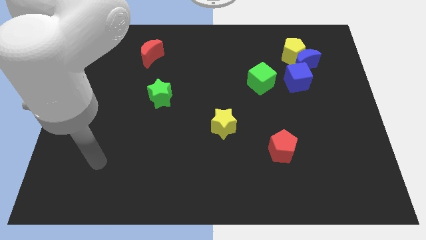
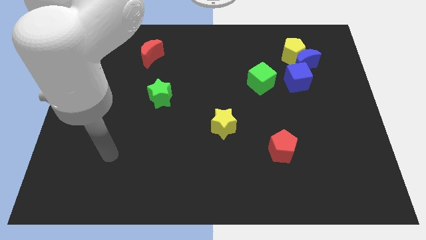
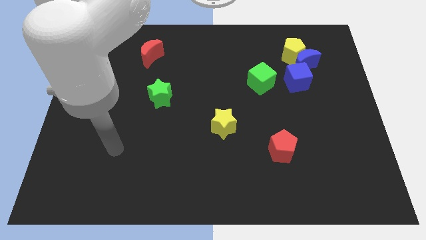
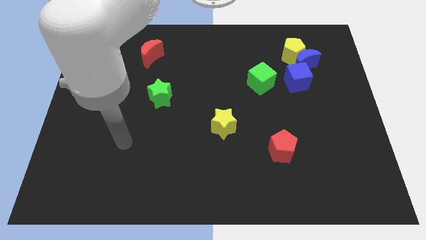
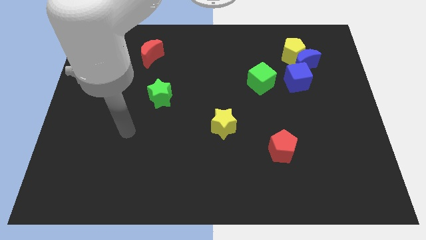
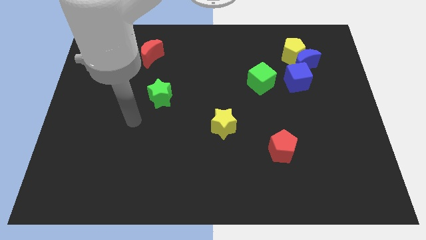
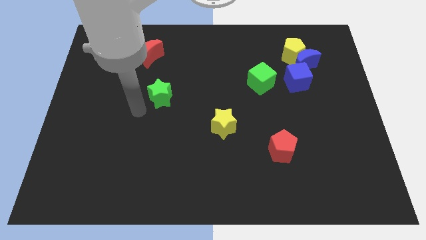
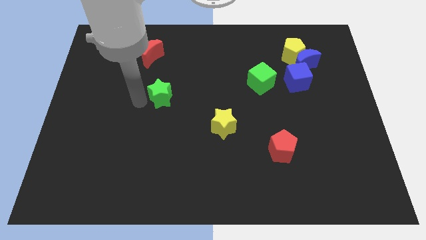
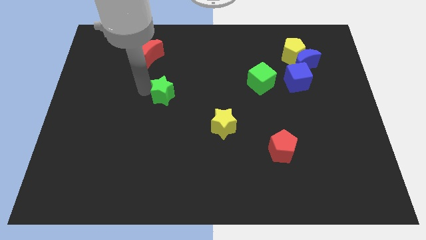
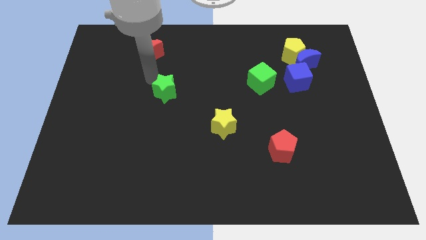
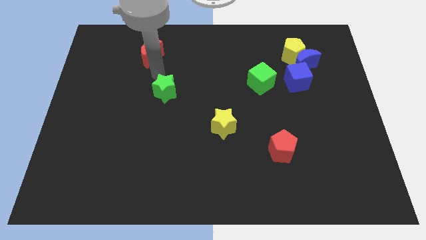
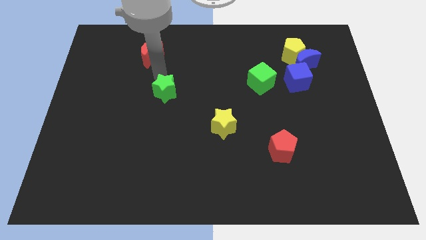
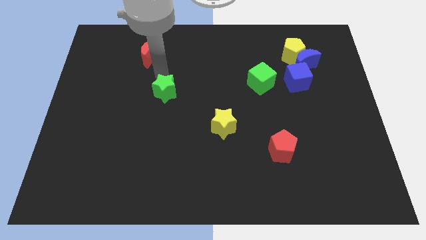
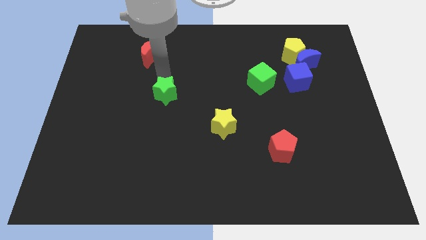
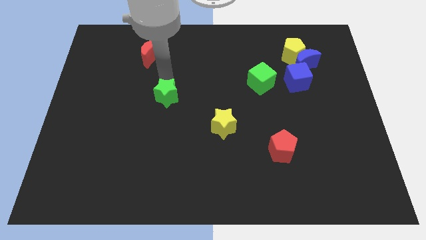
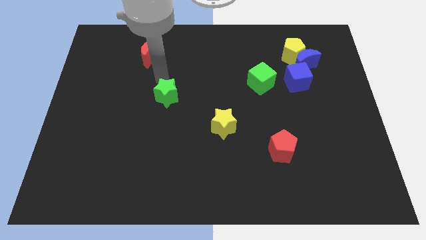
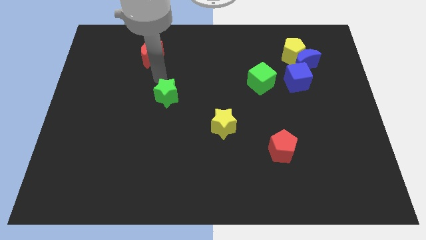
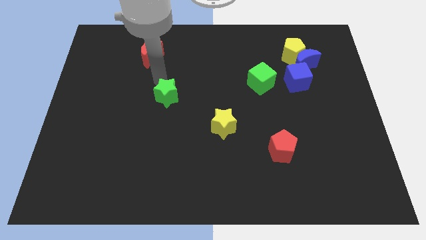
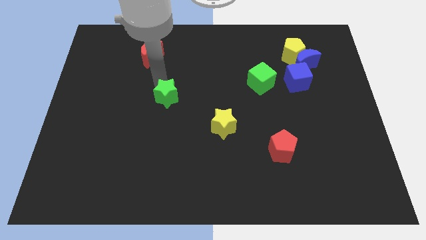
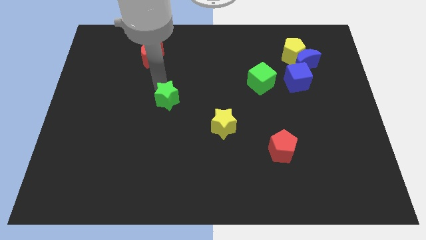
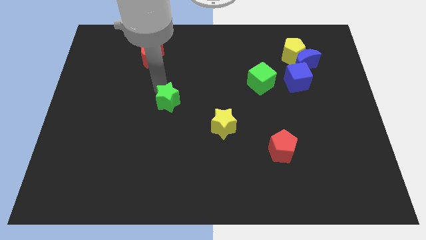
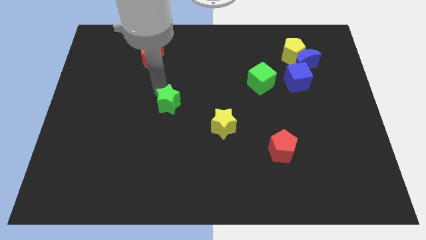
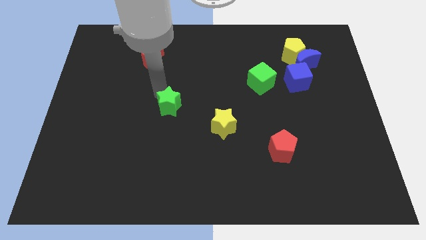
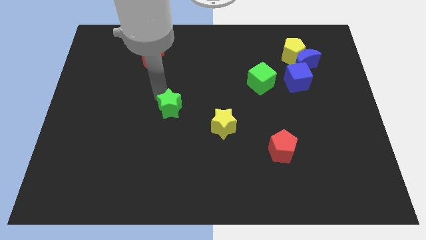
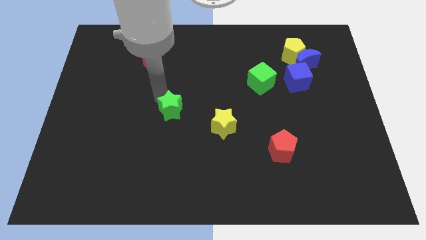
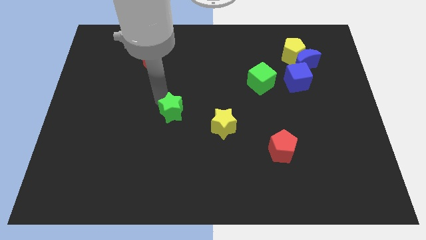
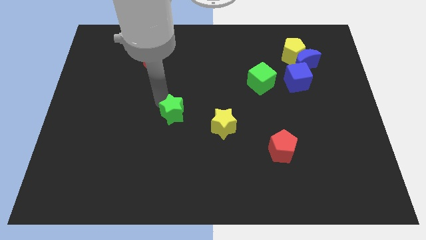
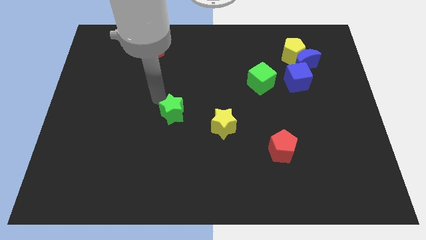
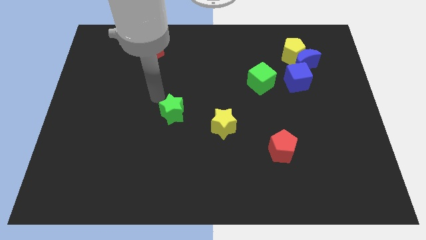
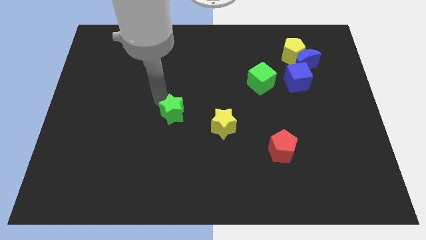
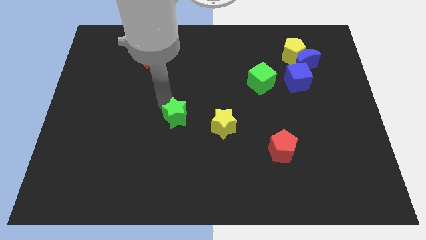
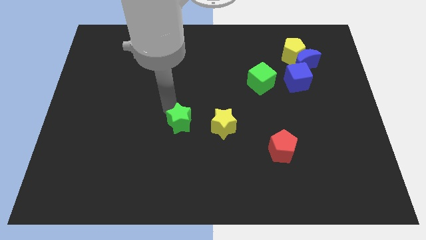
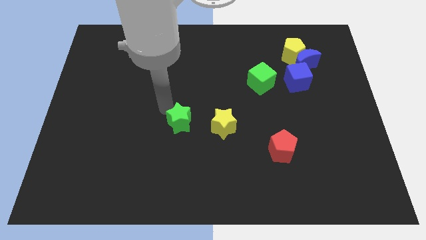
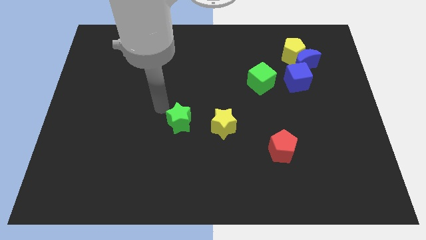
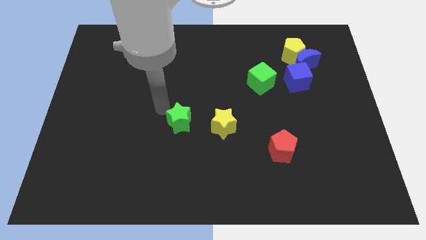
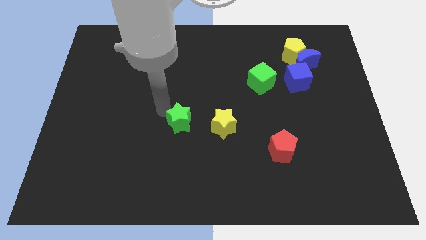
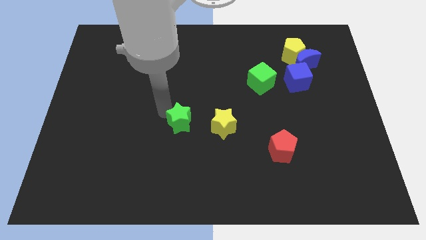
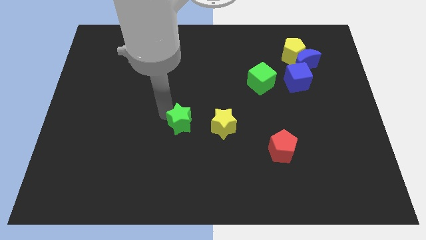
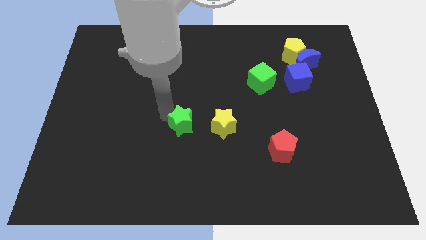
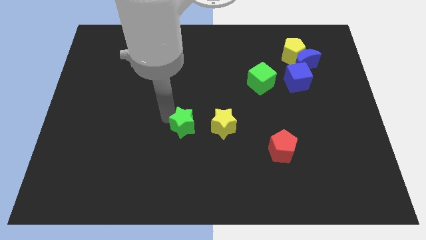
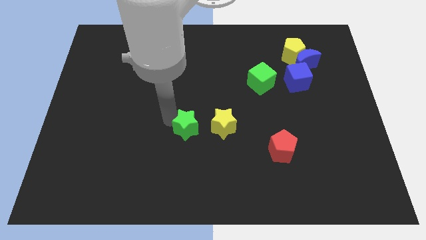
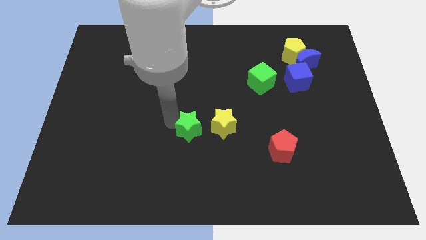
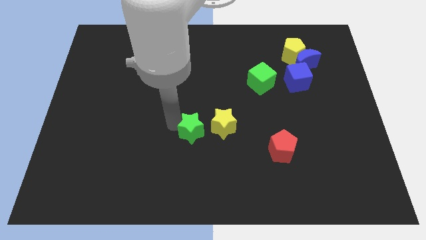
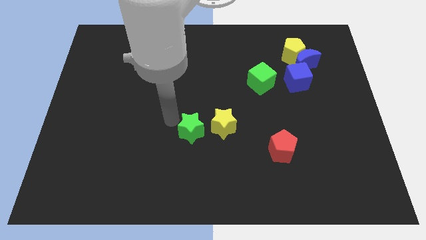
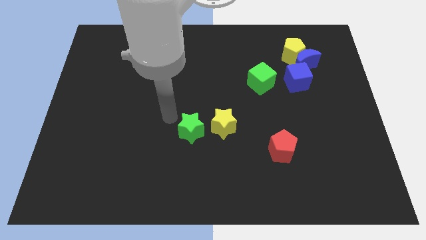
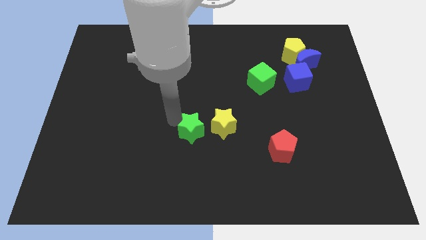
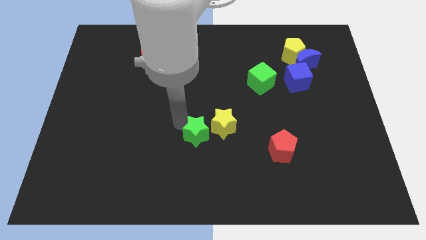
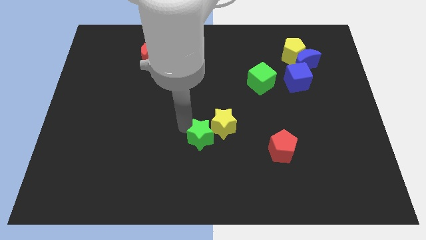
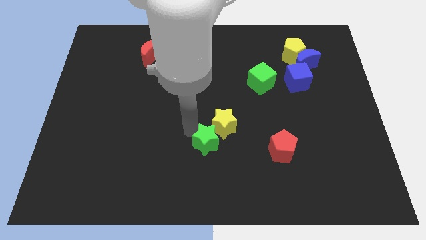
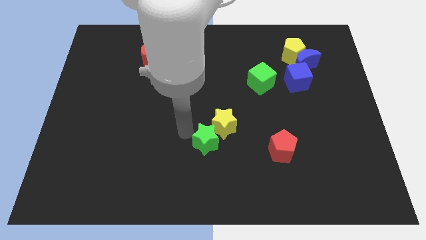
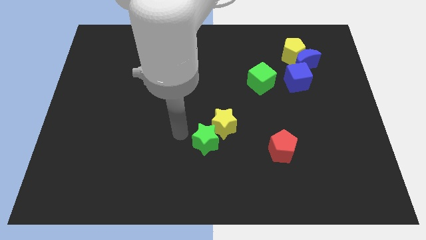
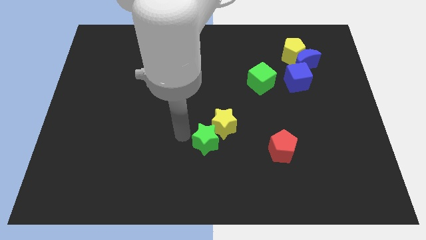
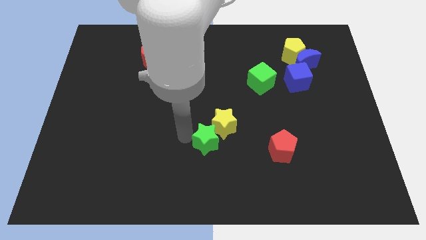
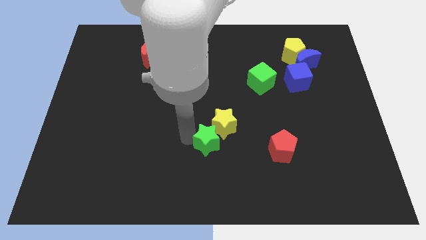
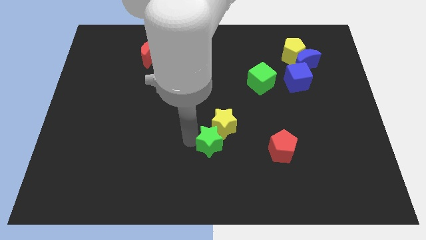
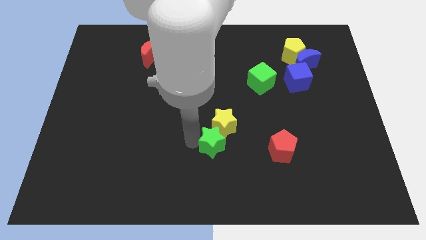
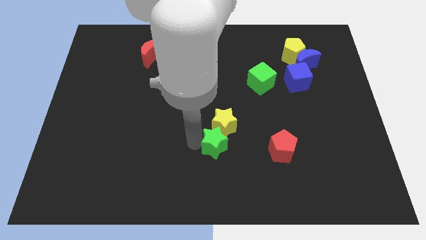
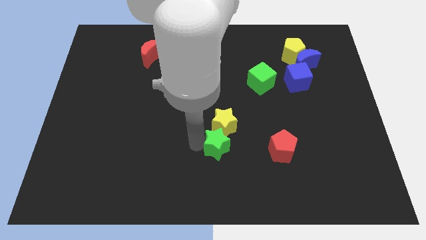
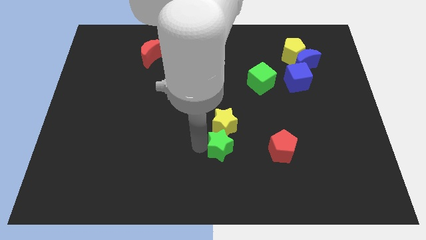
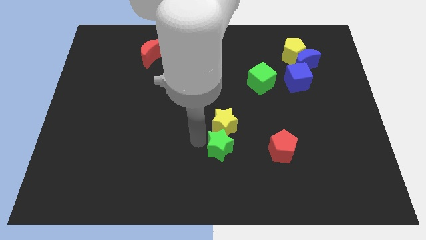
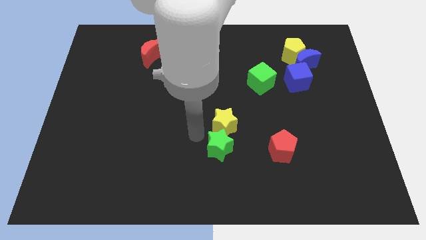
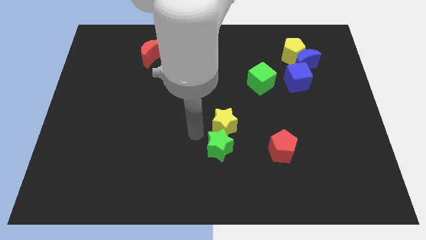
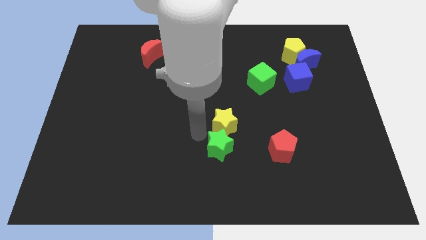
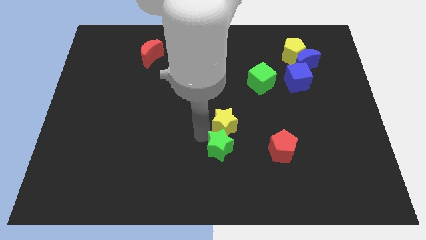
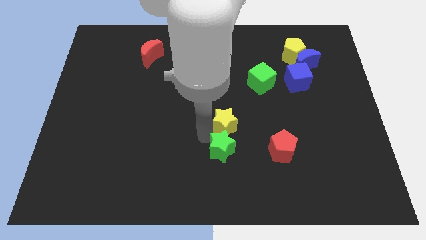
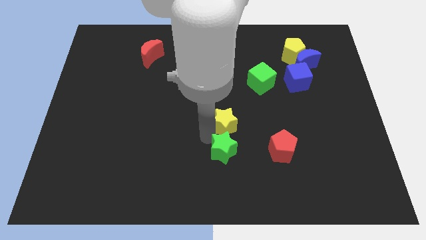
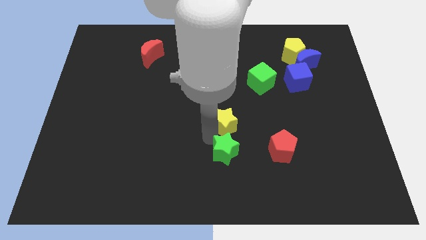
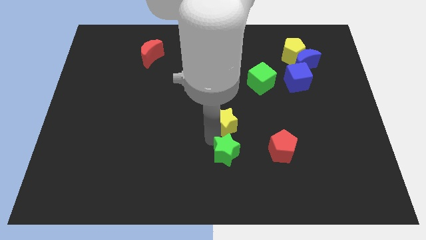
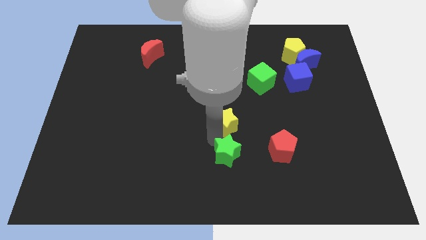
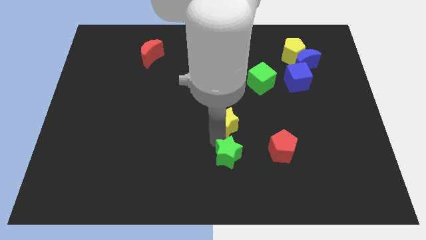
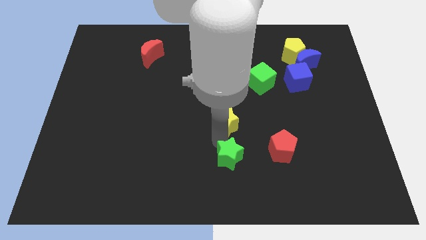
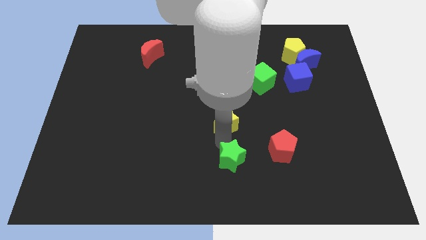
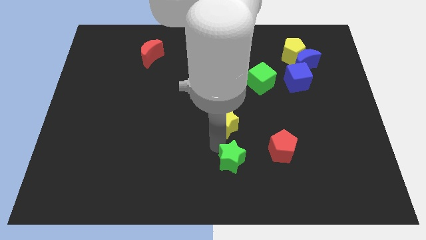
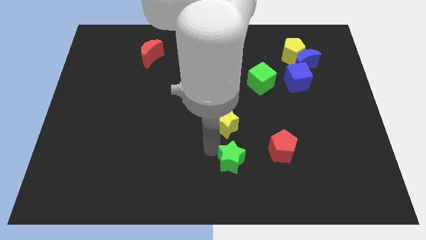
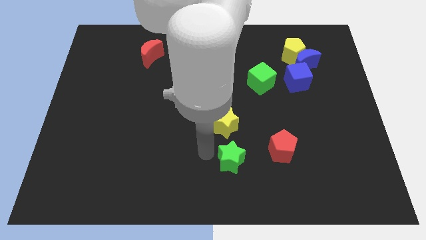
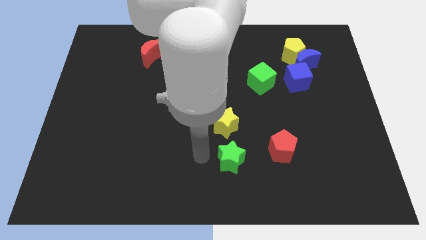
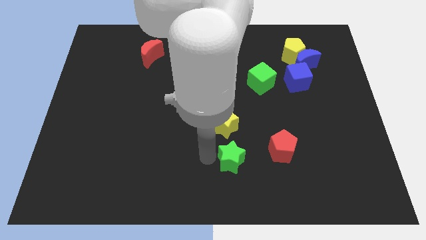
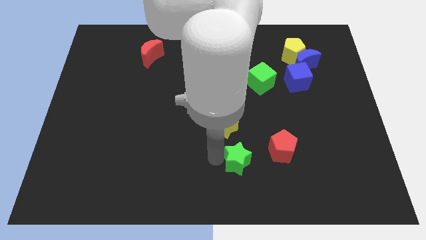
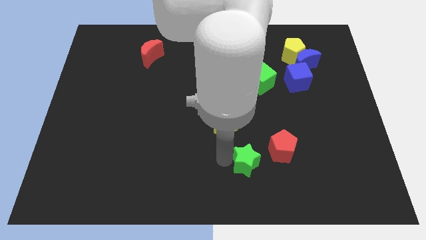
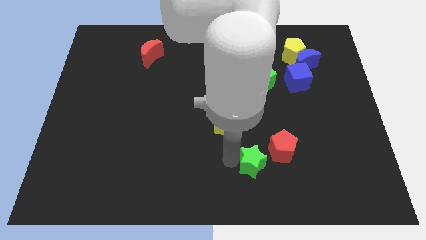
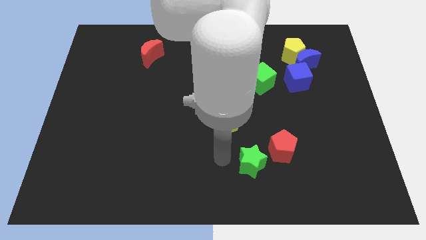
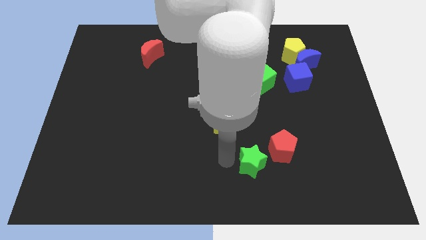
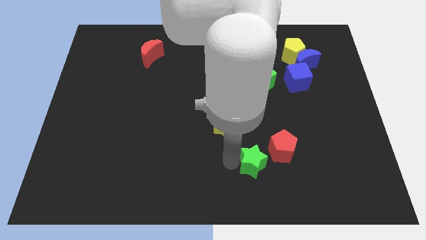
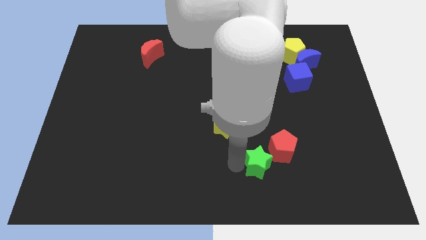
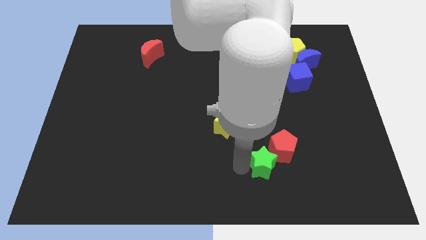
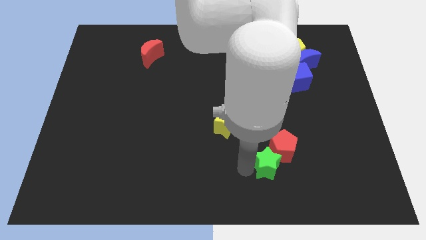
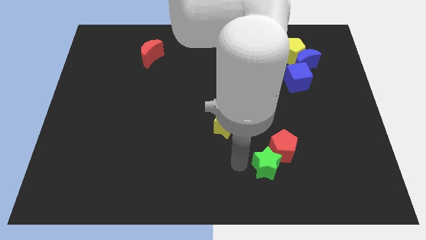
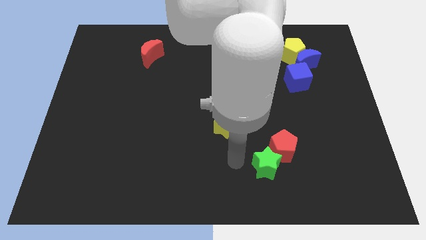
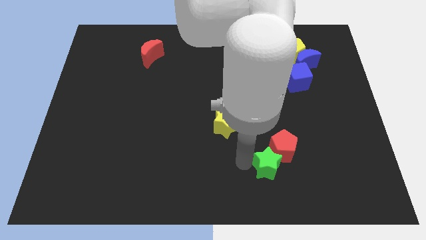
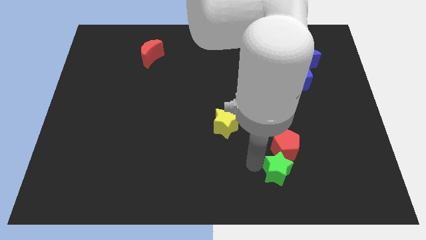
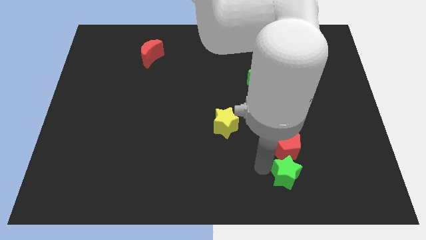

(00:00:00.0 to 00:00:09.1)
slide the green star to the bottom right of the red pentagon
